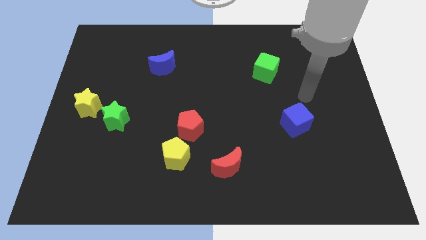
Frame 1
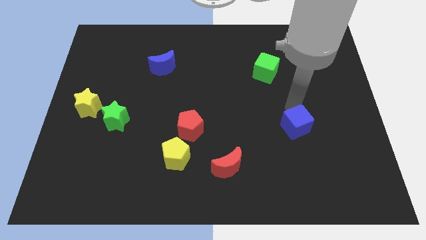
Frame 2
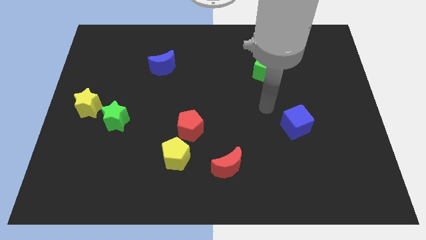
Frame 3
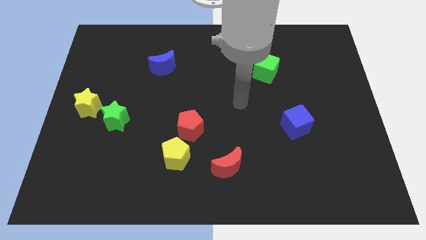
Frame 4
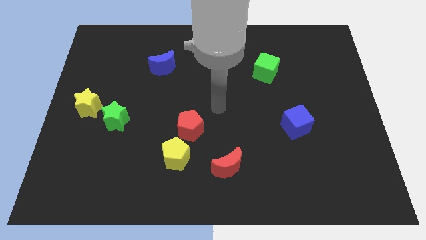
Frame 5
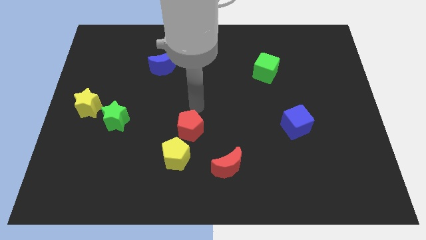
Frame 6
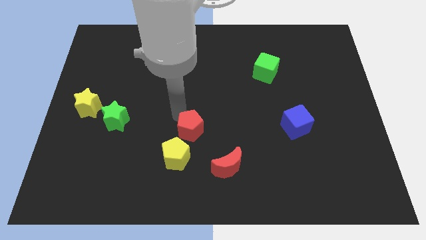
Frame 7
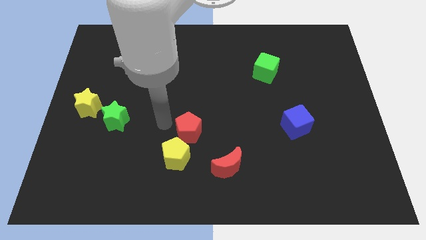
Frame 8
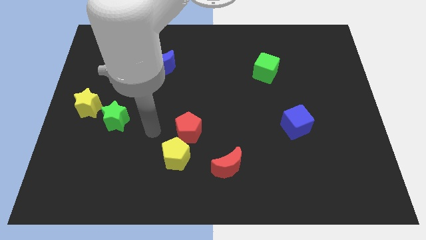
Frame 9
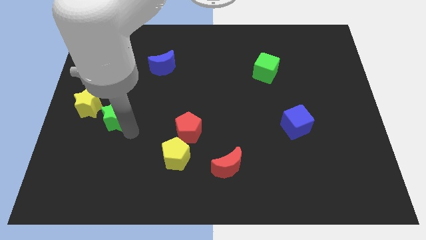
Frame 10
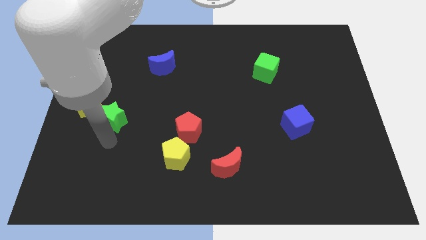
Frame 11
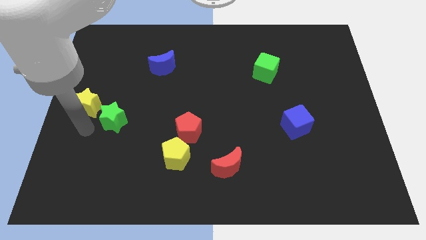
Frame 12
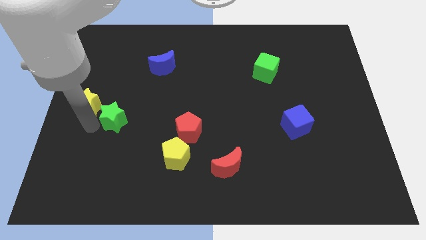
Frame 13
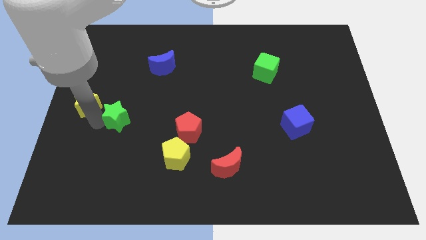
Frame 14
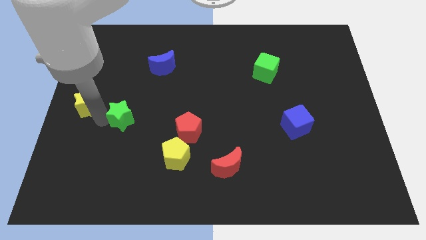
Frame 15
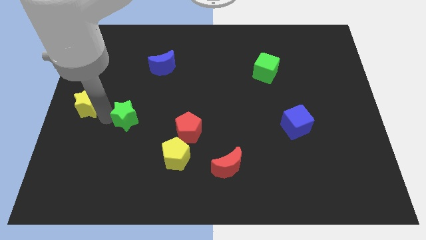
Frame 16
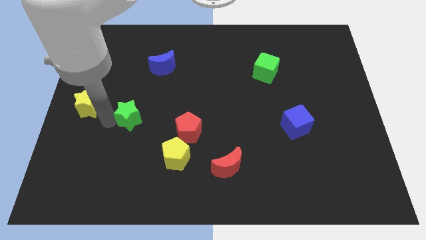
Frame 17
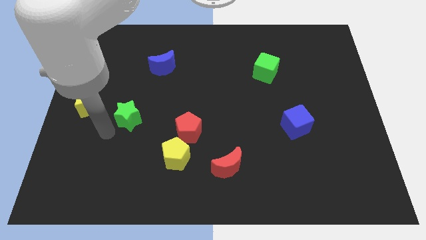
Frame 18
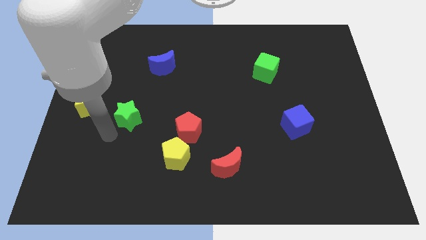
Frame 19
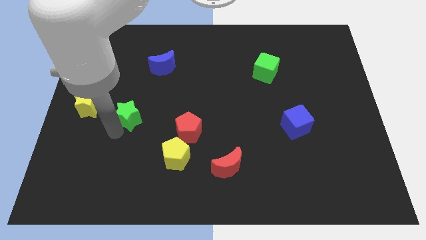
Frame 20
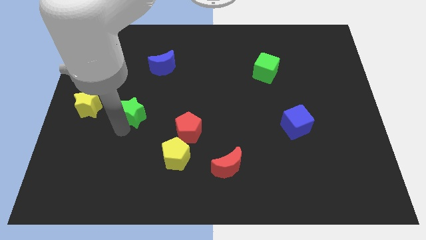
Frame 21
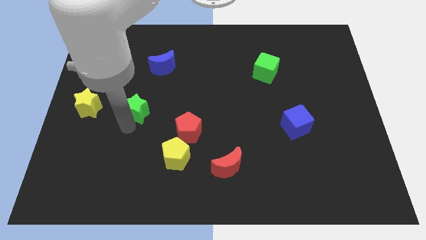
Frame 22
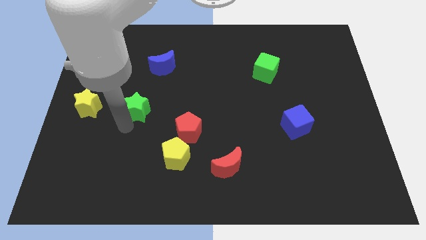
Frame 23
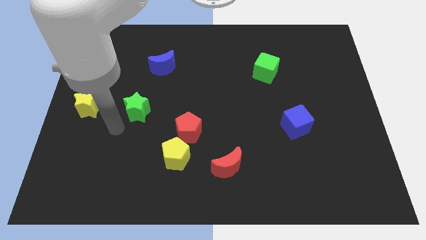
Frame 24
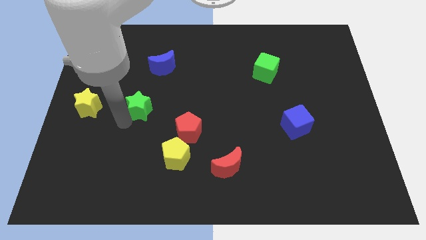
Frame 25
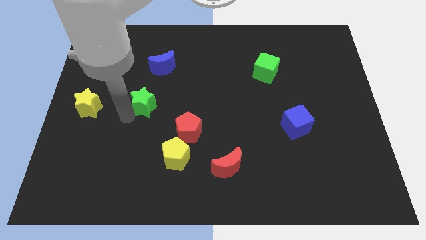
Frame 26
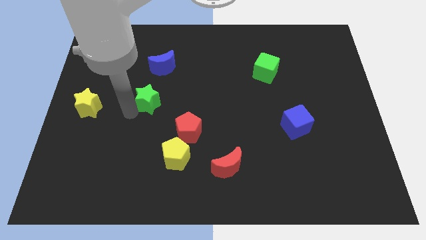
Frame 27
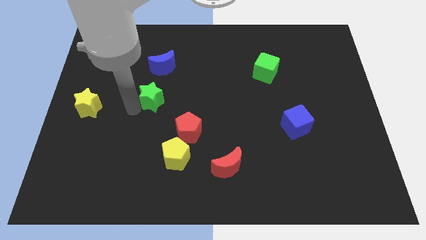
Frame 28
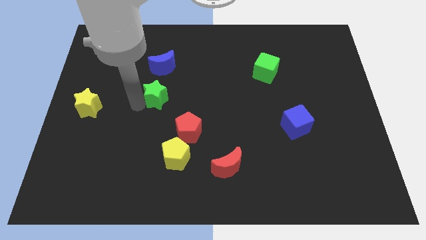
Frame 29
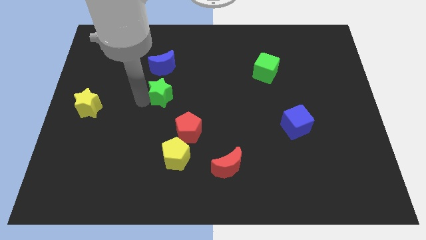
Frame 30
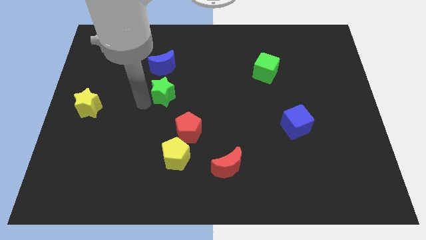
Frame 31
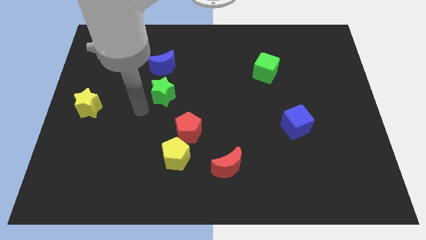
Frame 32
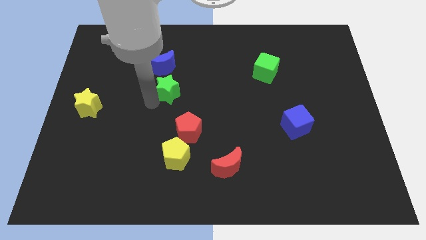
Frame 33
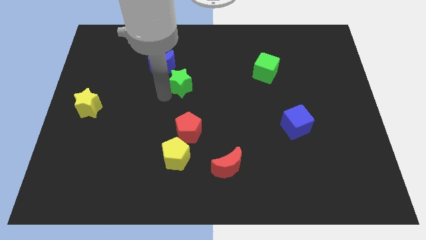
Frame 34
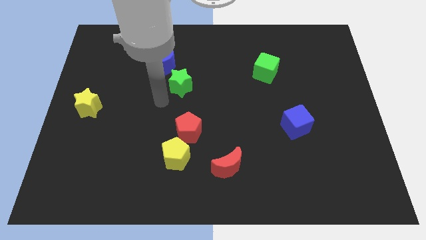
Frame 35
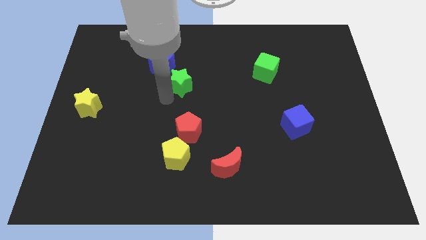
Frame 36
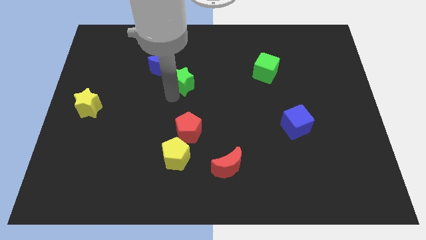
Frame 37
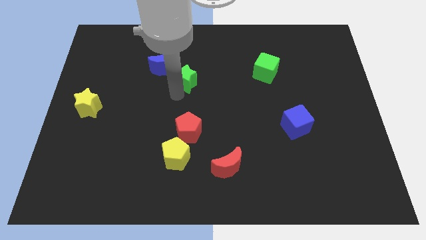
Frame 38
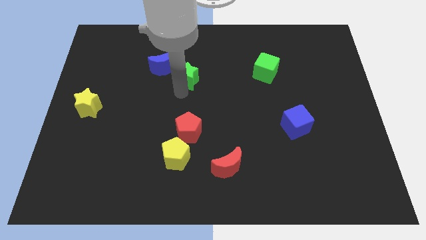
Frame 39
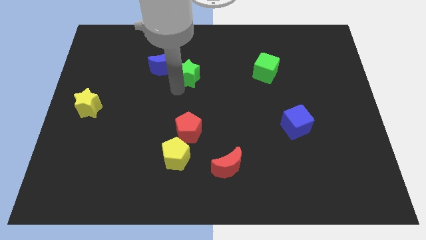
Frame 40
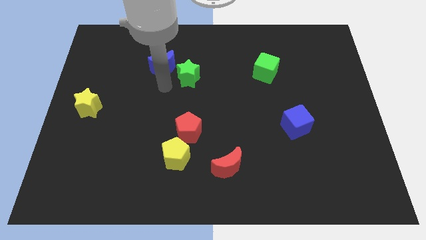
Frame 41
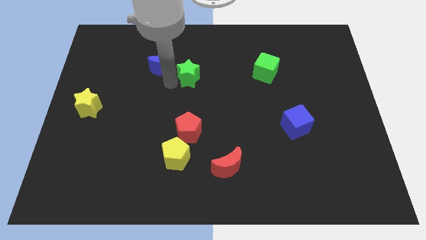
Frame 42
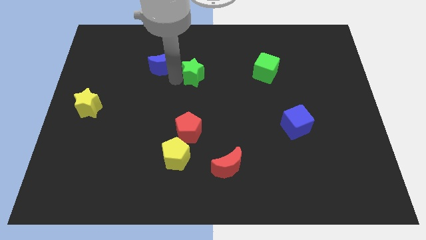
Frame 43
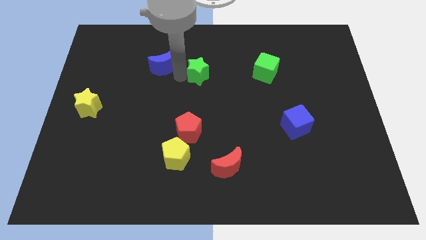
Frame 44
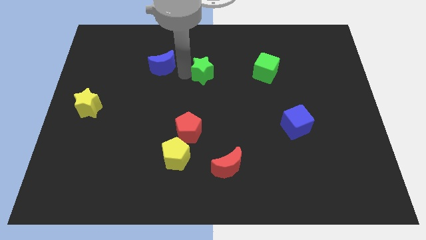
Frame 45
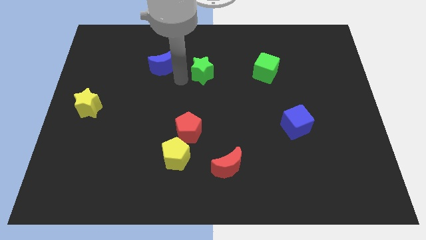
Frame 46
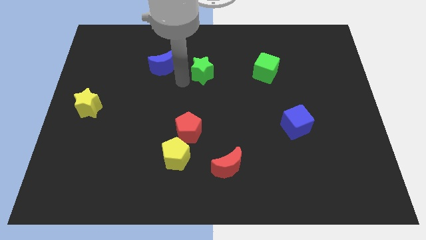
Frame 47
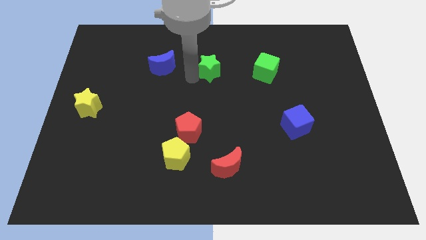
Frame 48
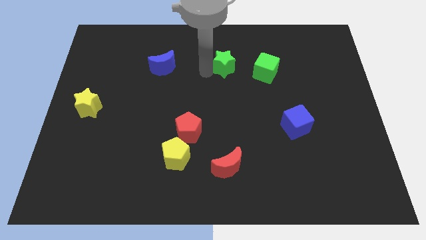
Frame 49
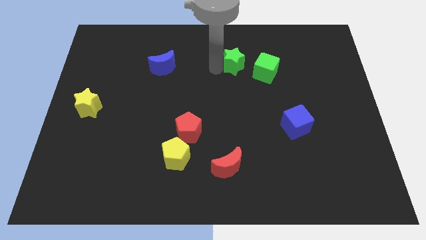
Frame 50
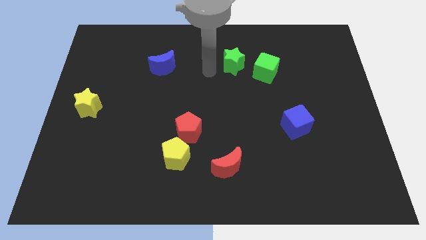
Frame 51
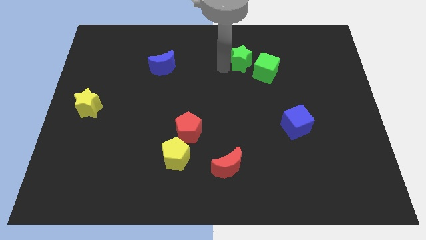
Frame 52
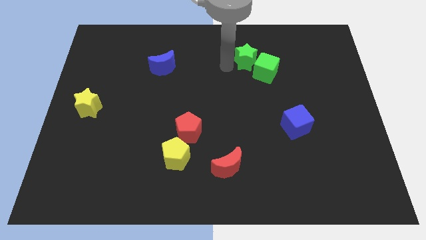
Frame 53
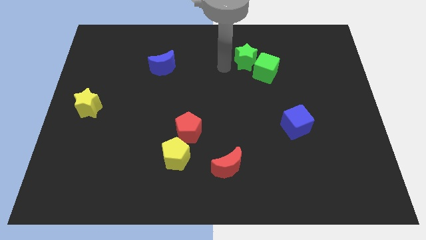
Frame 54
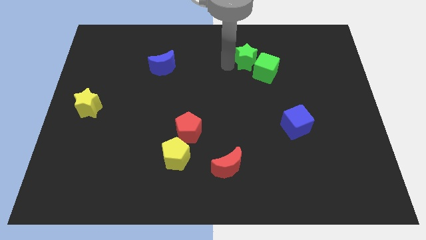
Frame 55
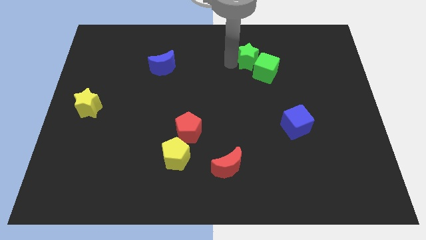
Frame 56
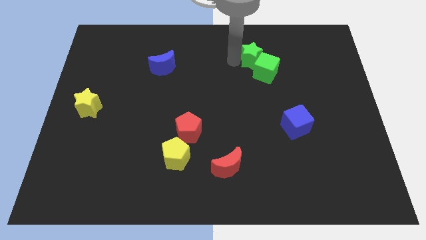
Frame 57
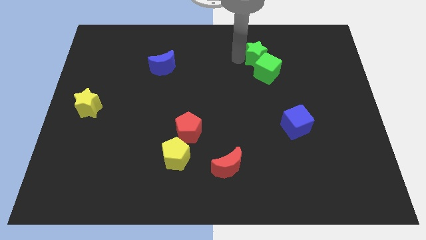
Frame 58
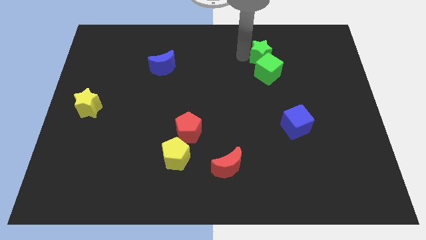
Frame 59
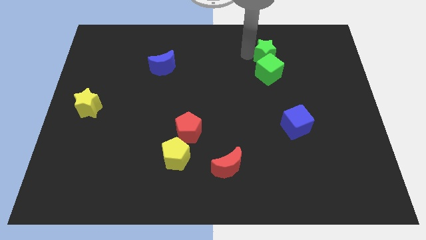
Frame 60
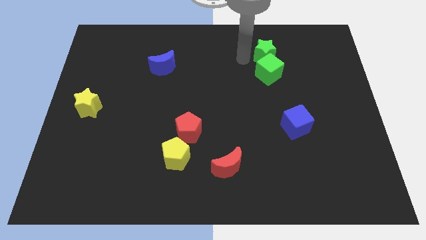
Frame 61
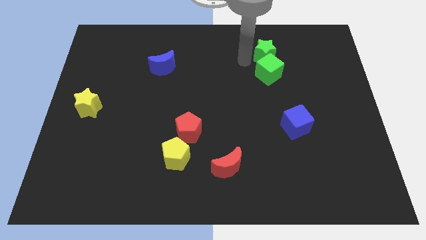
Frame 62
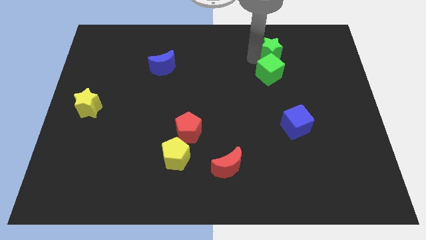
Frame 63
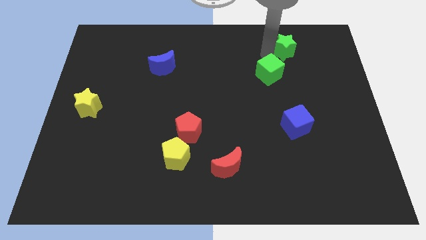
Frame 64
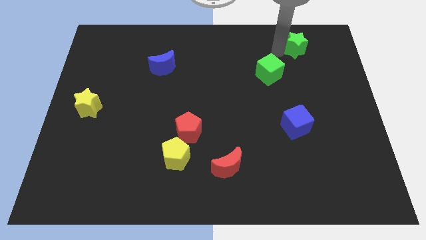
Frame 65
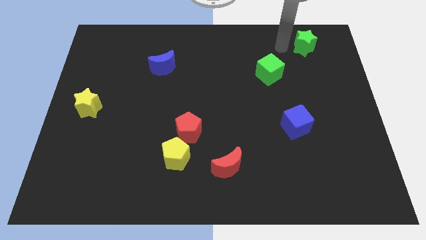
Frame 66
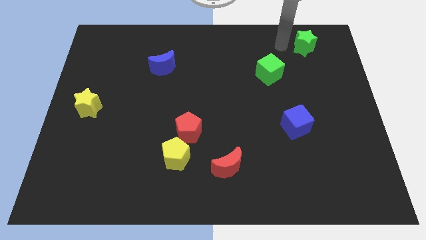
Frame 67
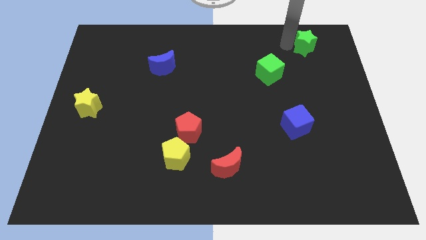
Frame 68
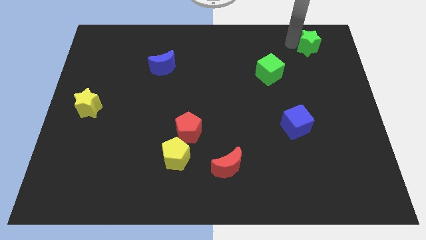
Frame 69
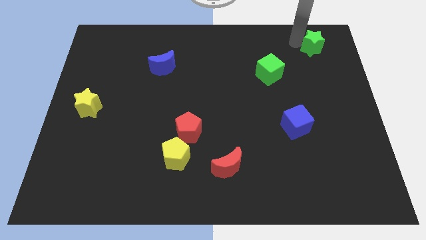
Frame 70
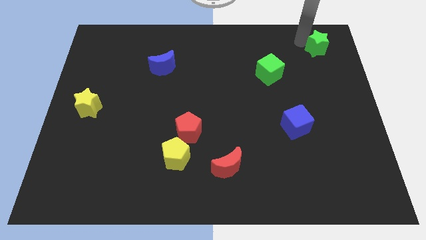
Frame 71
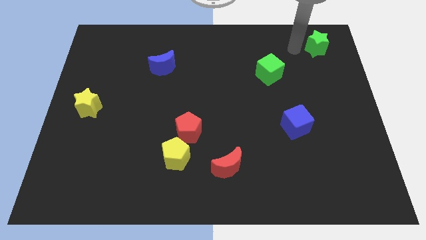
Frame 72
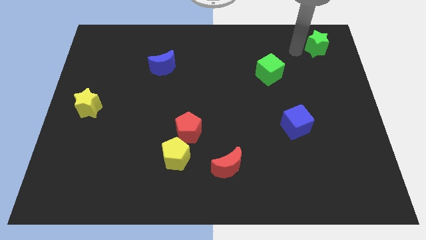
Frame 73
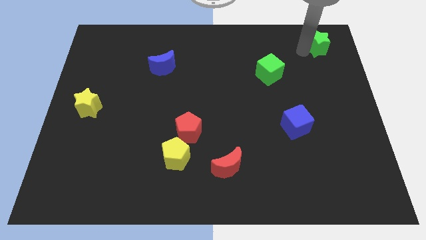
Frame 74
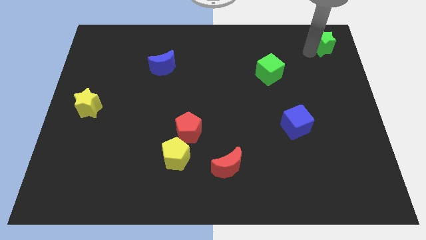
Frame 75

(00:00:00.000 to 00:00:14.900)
slide the green star to the top right
